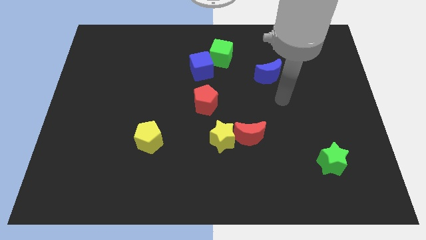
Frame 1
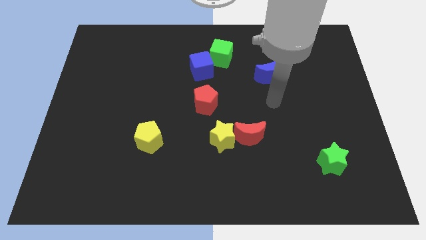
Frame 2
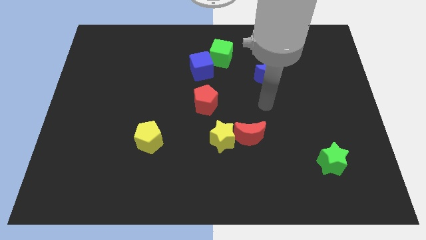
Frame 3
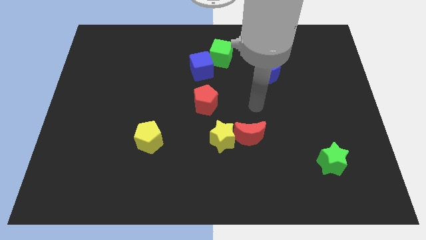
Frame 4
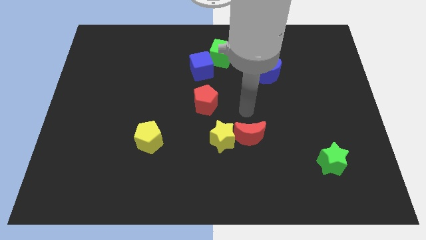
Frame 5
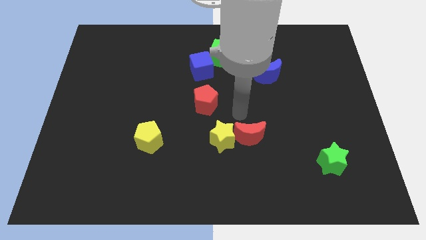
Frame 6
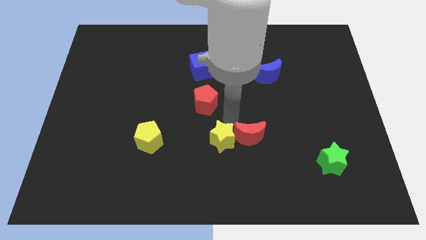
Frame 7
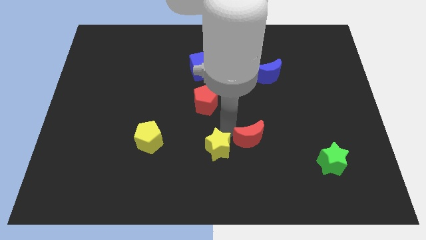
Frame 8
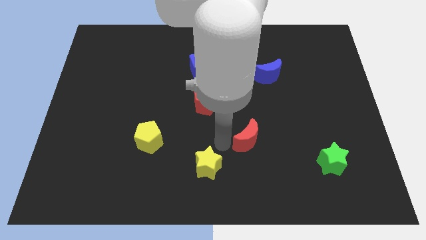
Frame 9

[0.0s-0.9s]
move the red moon away from the yellow star

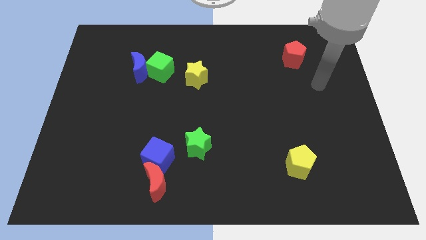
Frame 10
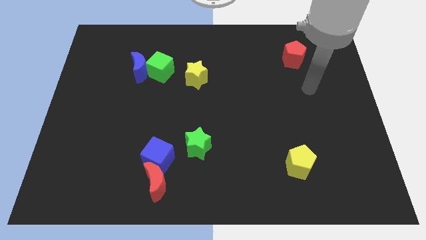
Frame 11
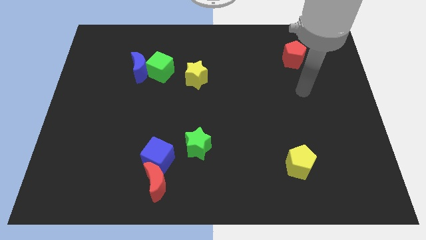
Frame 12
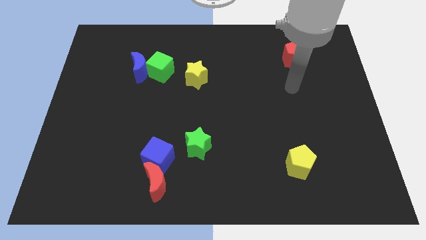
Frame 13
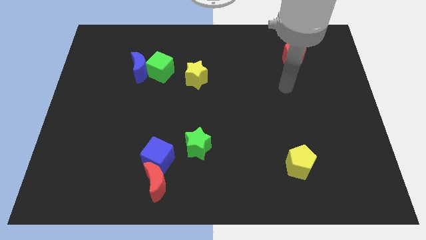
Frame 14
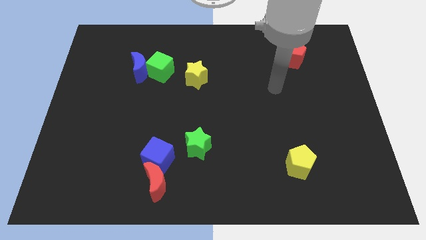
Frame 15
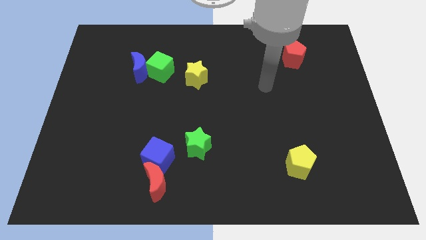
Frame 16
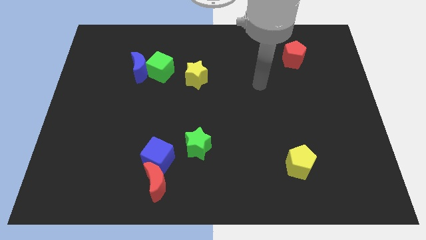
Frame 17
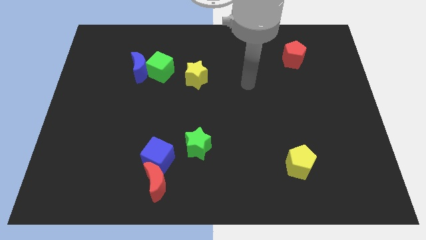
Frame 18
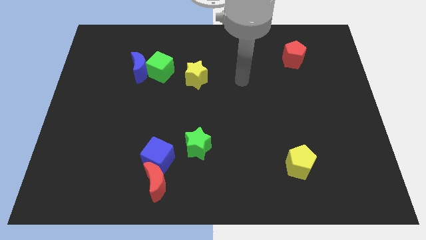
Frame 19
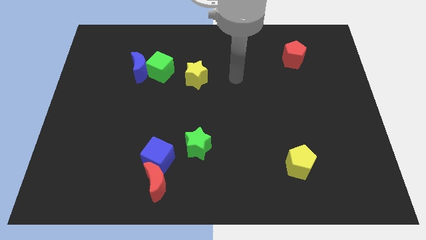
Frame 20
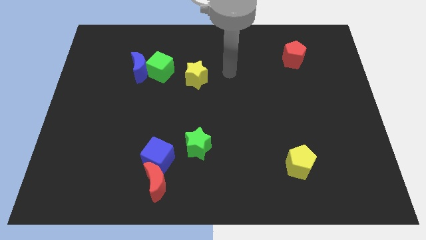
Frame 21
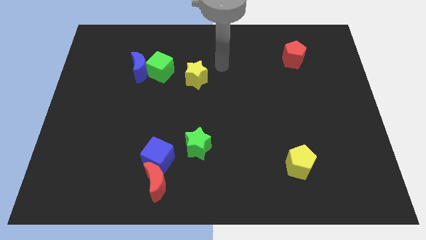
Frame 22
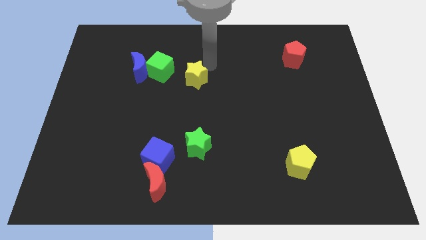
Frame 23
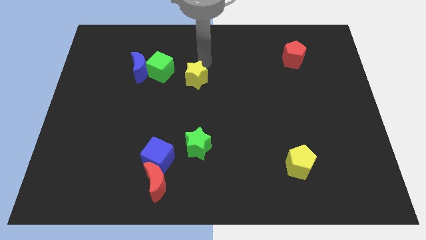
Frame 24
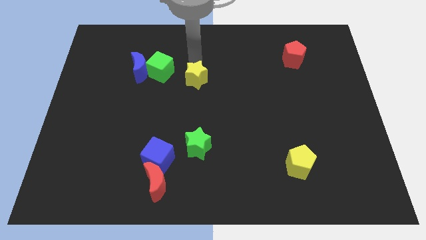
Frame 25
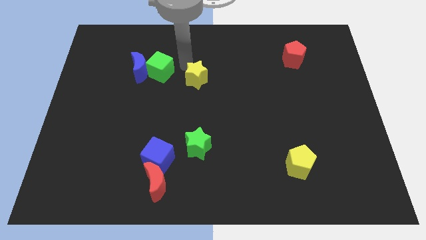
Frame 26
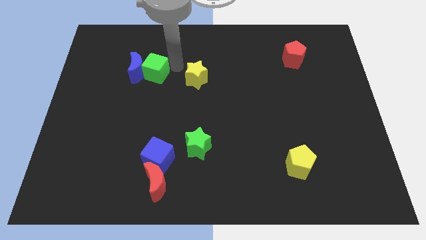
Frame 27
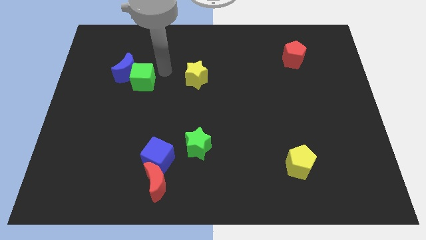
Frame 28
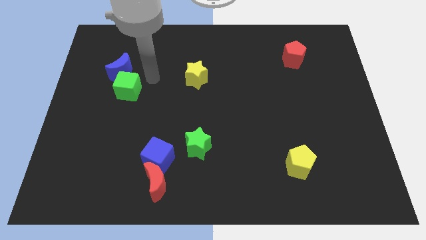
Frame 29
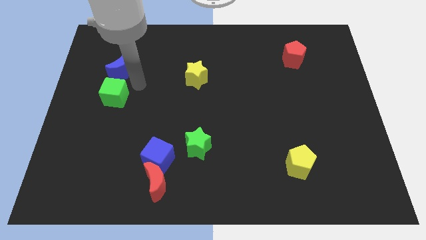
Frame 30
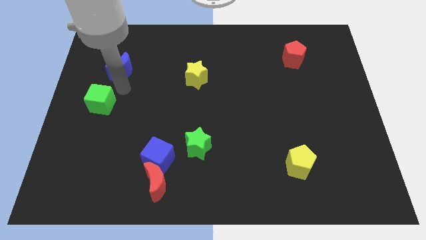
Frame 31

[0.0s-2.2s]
separate the blue moon from the green cube

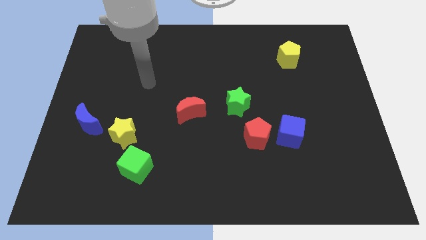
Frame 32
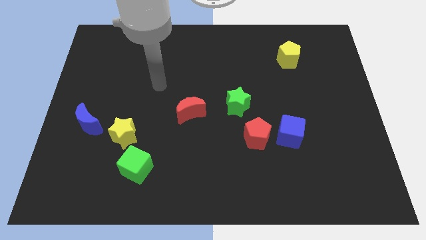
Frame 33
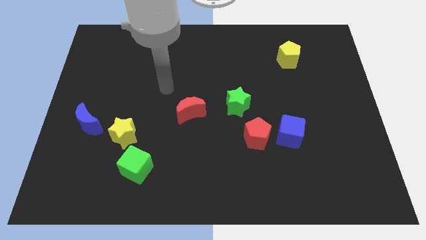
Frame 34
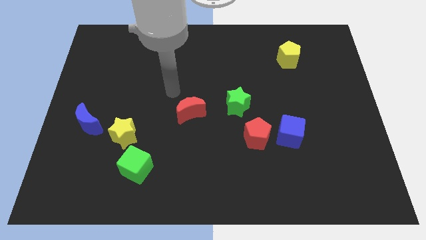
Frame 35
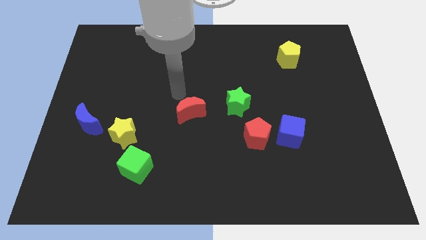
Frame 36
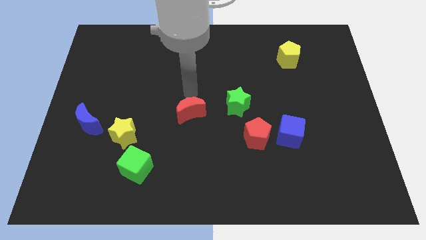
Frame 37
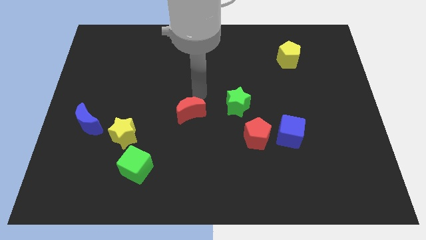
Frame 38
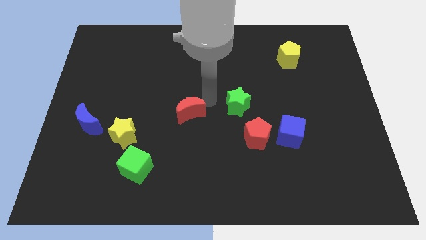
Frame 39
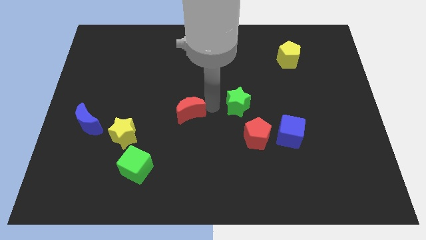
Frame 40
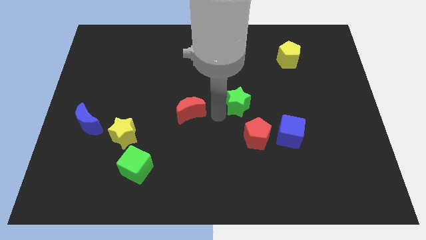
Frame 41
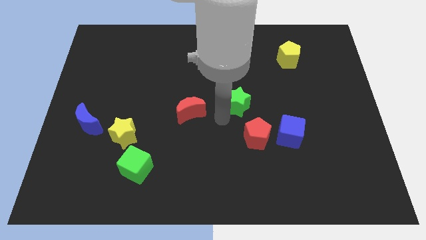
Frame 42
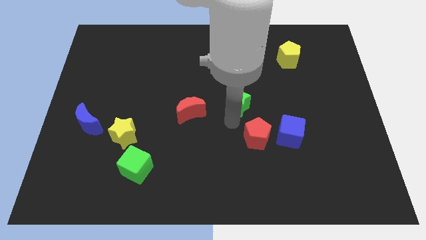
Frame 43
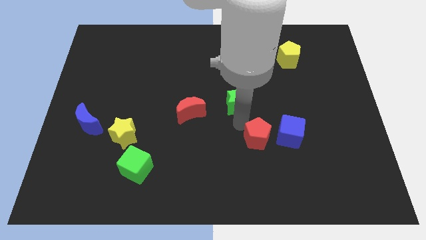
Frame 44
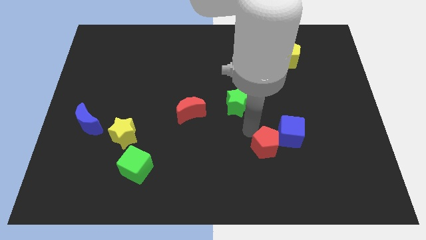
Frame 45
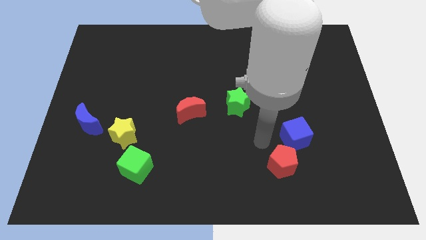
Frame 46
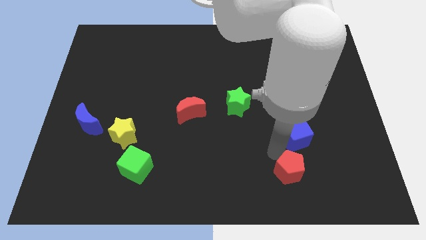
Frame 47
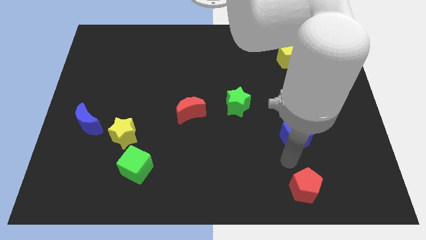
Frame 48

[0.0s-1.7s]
pull the blue cube apart from the red pentagon

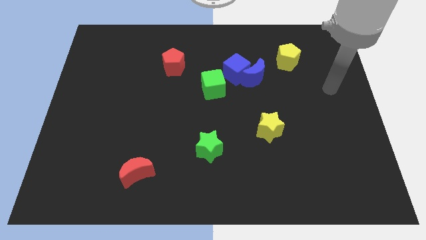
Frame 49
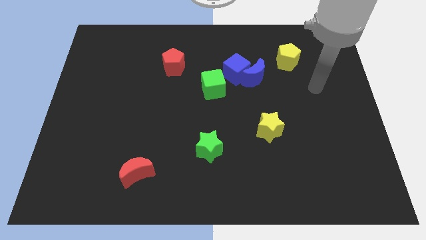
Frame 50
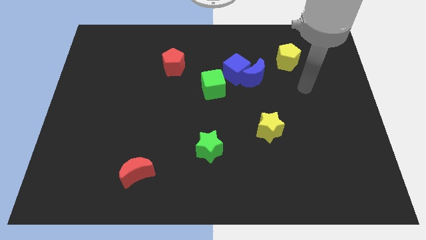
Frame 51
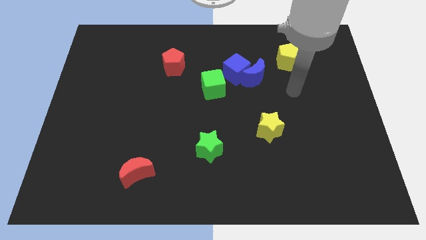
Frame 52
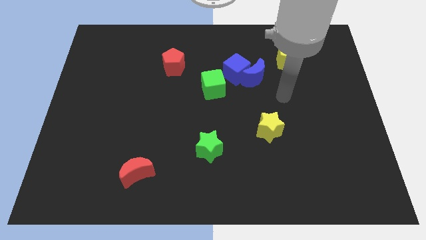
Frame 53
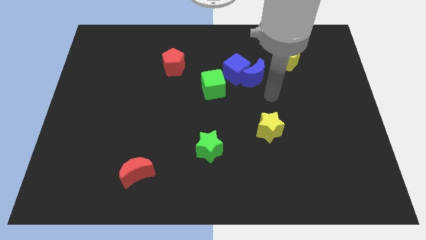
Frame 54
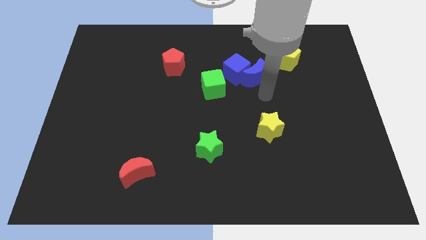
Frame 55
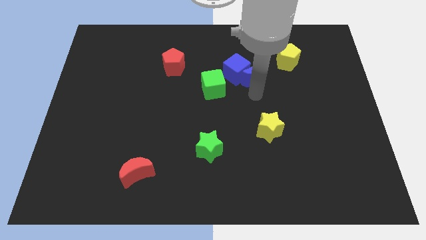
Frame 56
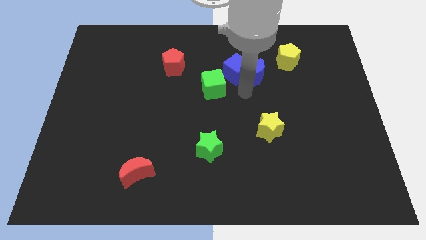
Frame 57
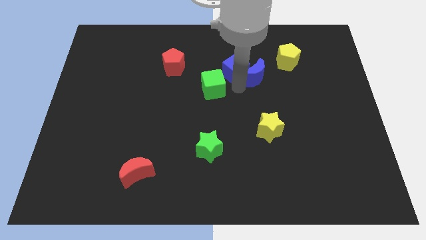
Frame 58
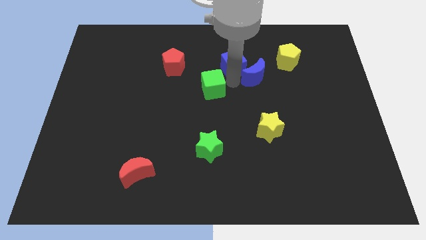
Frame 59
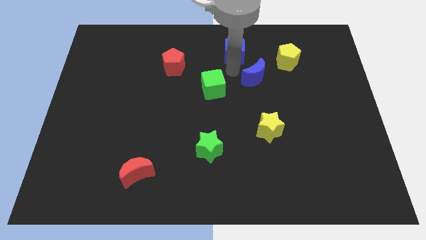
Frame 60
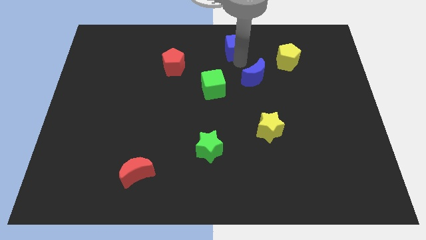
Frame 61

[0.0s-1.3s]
pull the blue moon apart from the blue cube

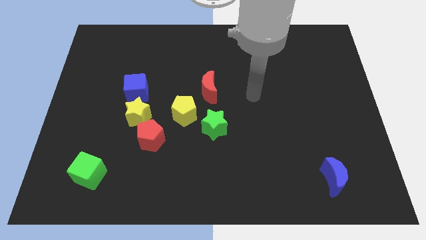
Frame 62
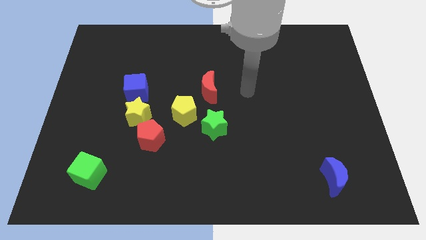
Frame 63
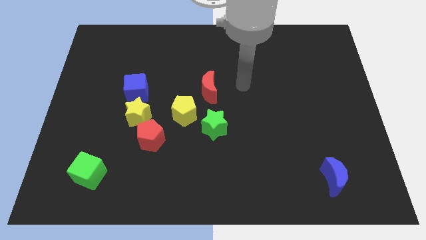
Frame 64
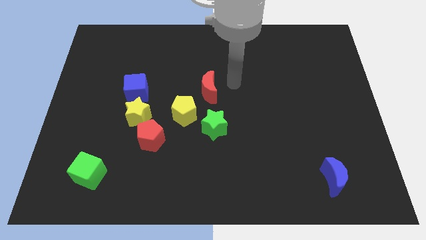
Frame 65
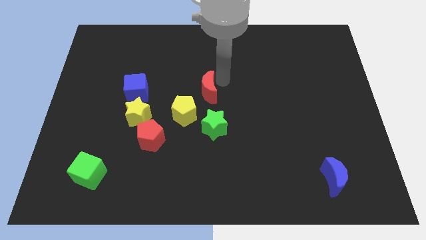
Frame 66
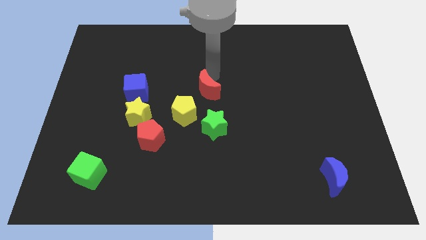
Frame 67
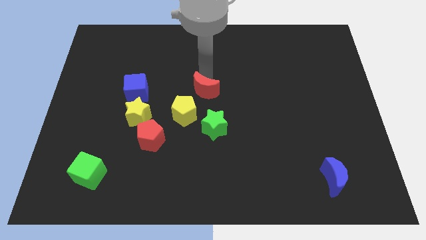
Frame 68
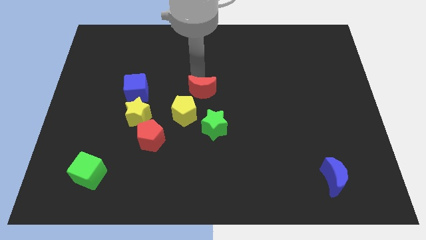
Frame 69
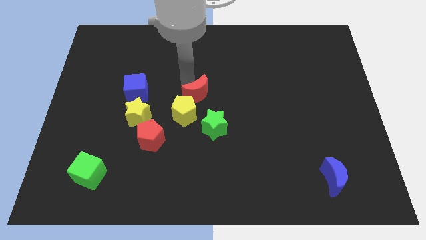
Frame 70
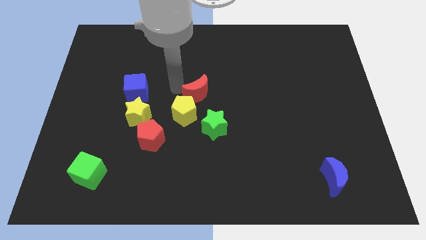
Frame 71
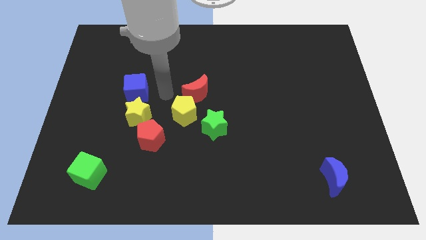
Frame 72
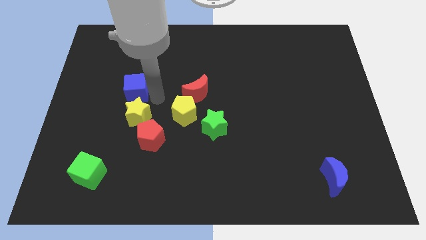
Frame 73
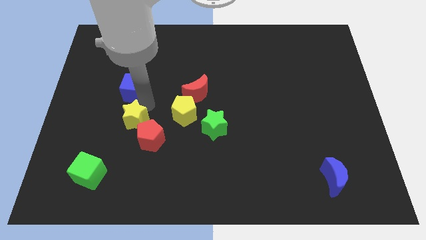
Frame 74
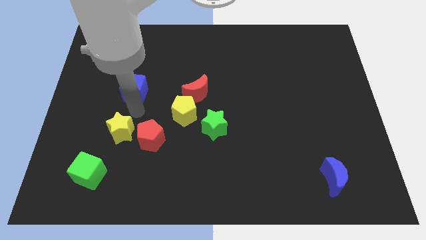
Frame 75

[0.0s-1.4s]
separate the blue cube from the yellow star

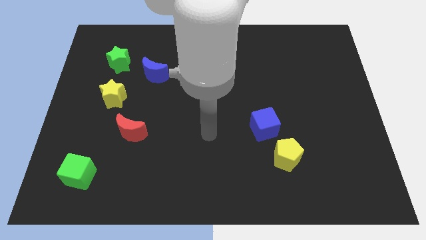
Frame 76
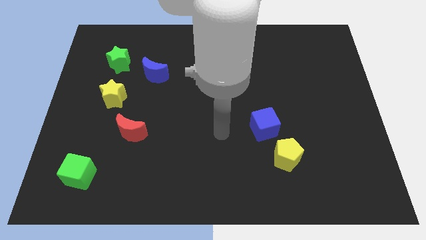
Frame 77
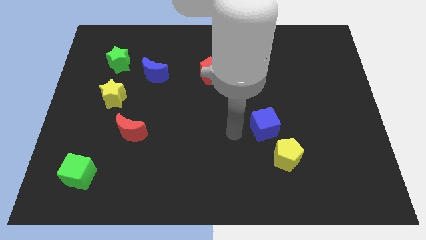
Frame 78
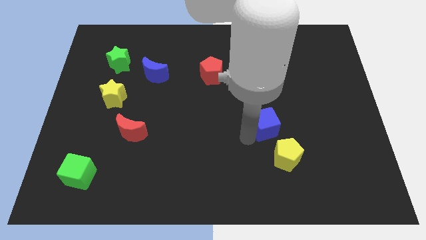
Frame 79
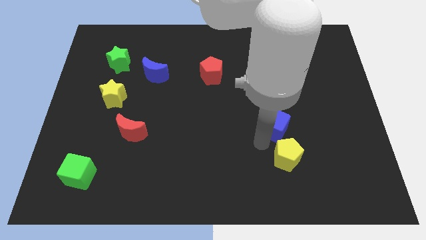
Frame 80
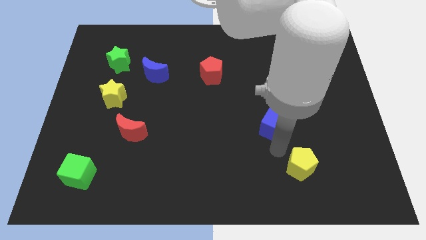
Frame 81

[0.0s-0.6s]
pull the blue cube apart from the yellow pentagon

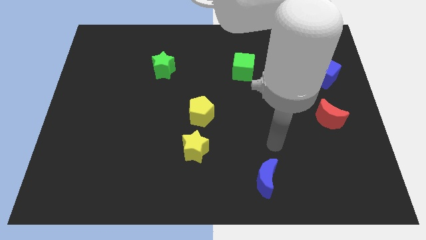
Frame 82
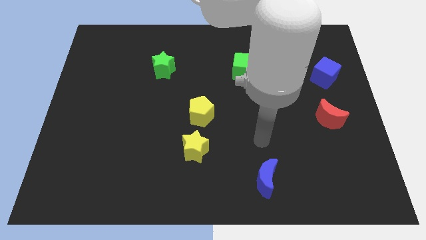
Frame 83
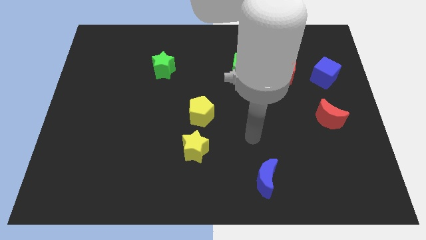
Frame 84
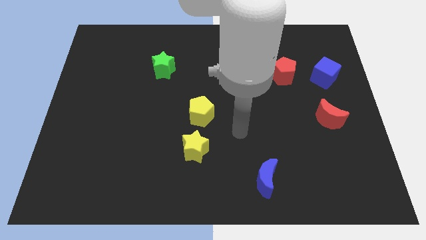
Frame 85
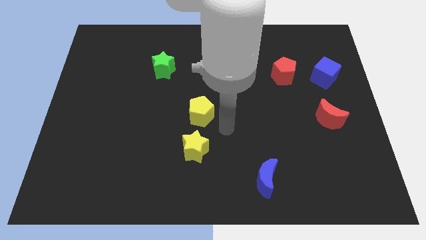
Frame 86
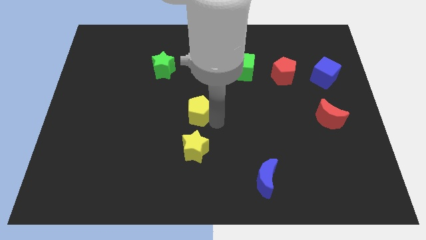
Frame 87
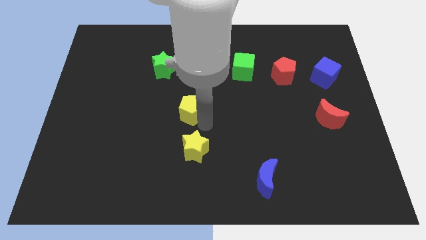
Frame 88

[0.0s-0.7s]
separate the yellow star from the yellow pentagon

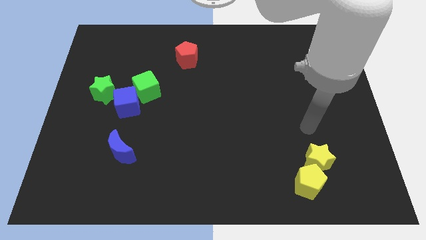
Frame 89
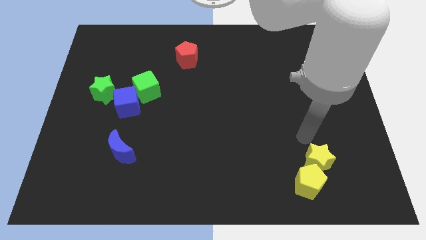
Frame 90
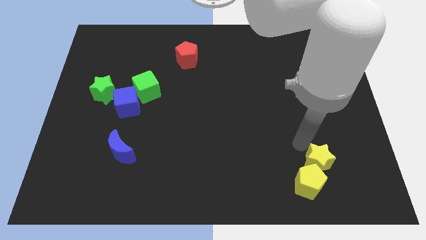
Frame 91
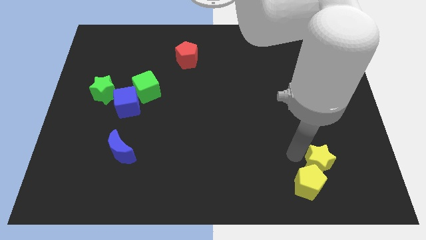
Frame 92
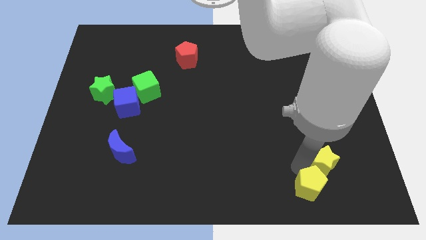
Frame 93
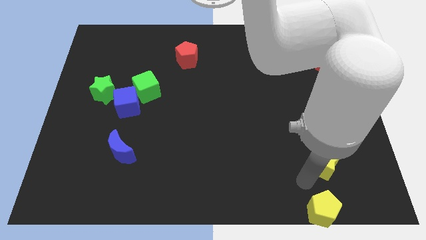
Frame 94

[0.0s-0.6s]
move the yellow star away from the yellow pentagon
